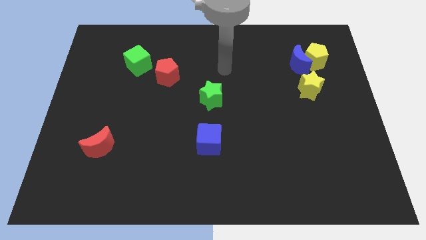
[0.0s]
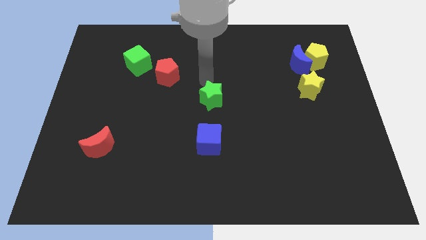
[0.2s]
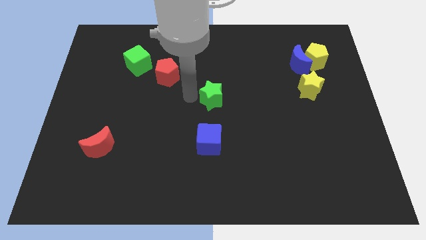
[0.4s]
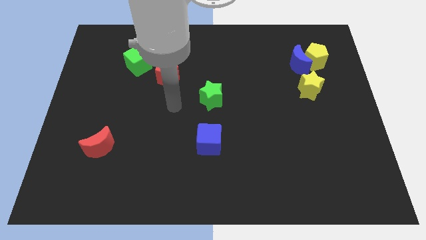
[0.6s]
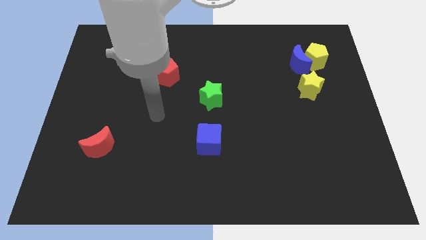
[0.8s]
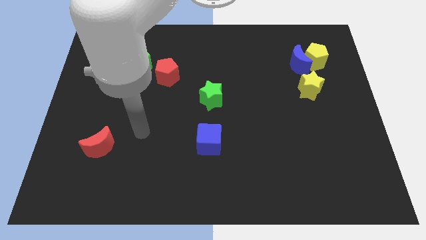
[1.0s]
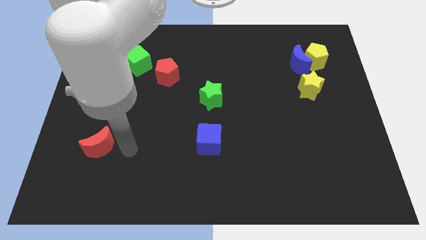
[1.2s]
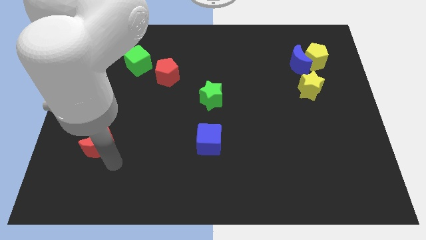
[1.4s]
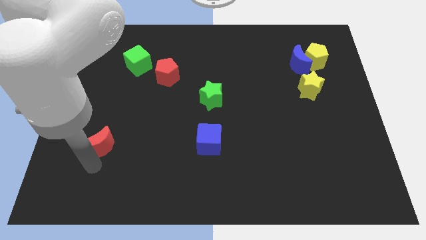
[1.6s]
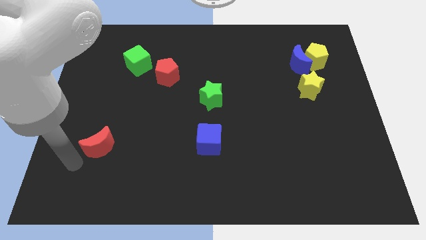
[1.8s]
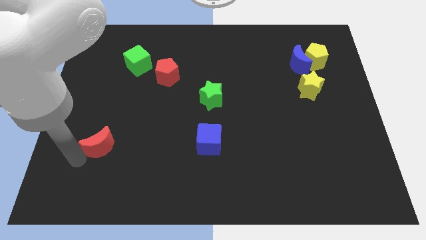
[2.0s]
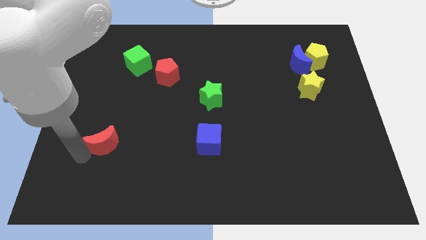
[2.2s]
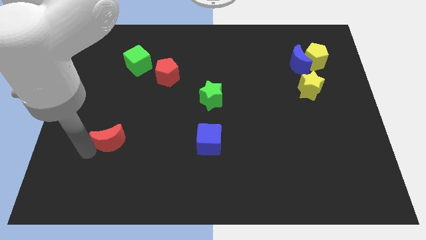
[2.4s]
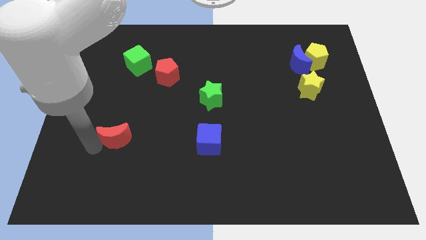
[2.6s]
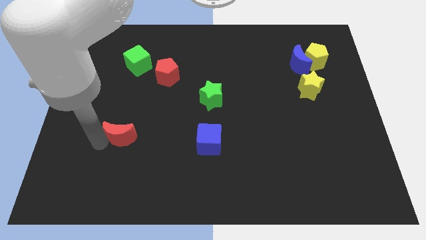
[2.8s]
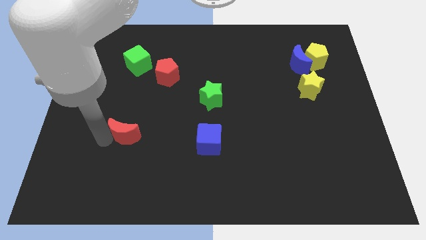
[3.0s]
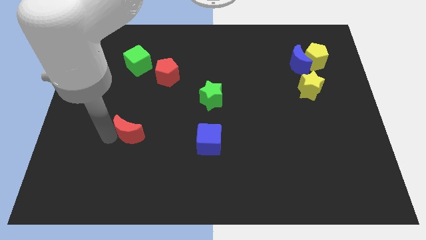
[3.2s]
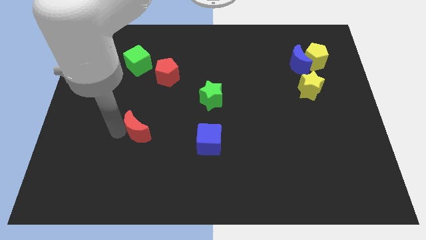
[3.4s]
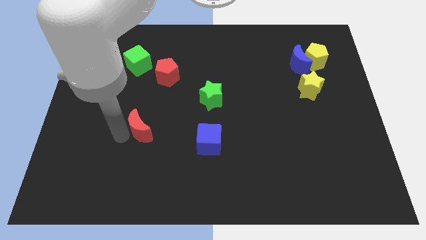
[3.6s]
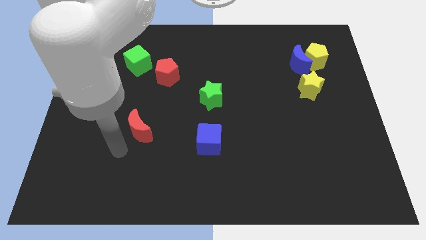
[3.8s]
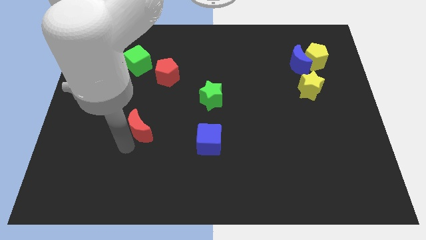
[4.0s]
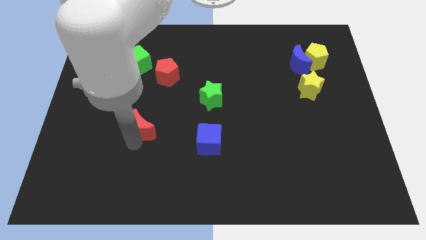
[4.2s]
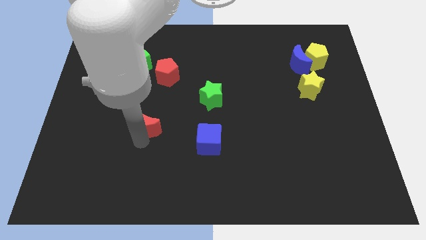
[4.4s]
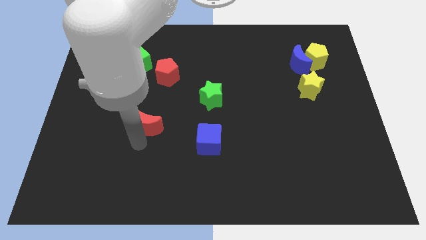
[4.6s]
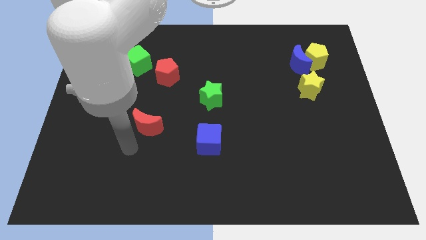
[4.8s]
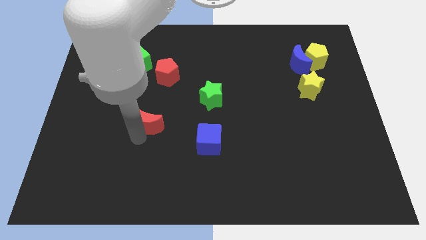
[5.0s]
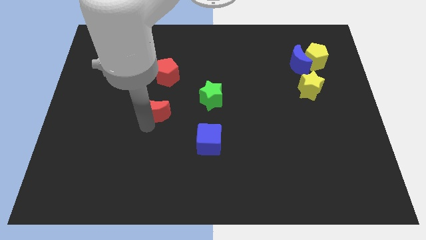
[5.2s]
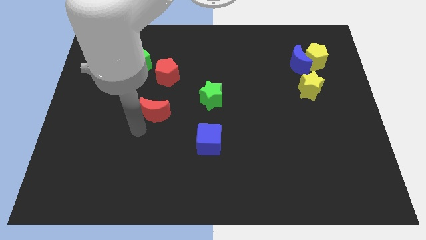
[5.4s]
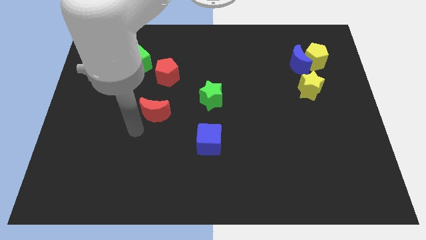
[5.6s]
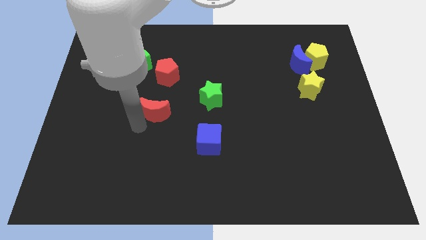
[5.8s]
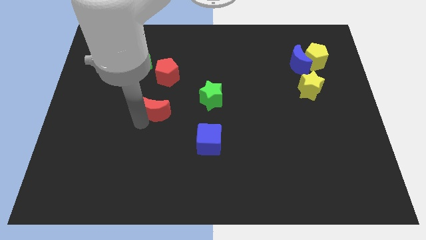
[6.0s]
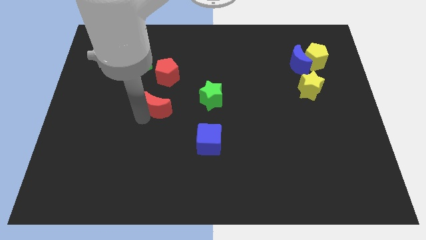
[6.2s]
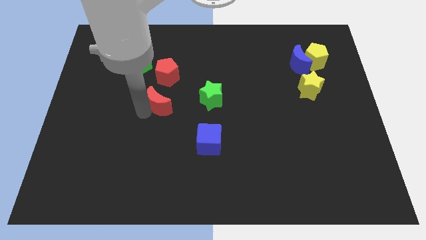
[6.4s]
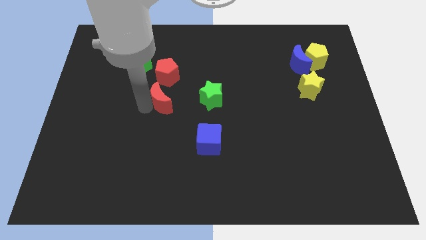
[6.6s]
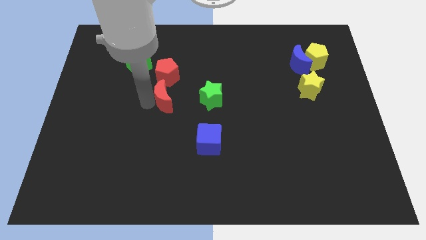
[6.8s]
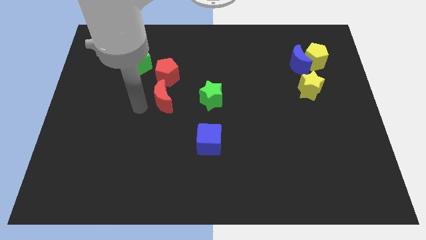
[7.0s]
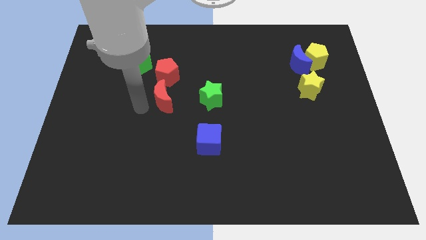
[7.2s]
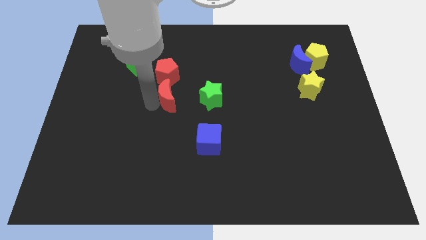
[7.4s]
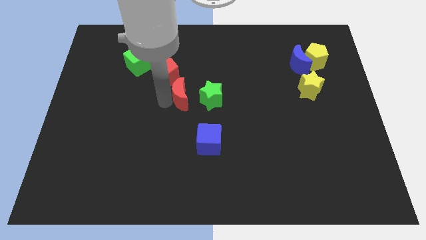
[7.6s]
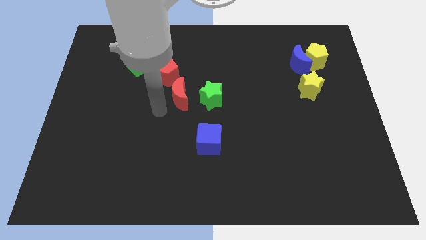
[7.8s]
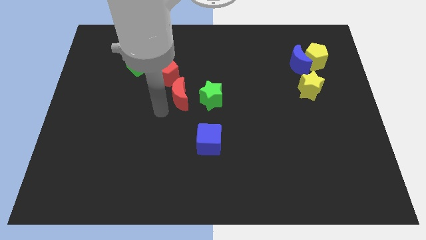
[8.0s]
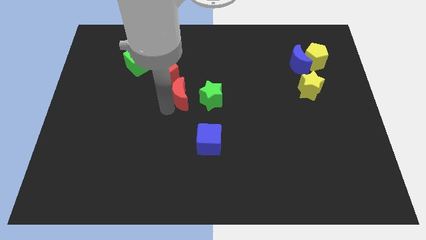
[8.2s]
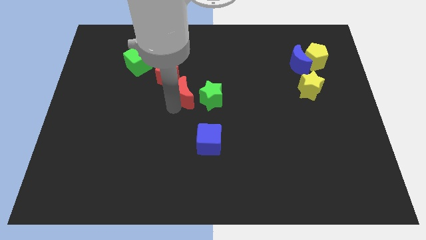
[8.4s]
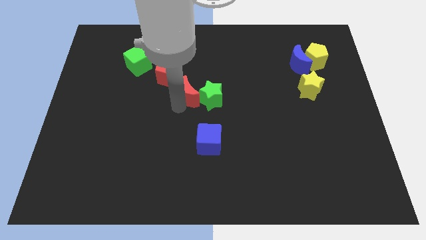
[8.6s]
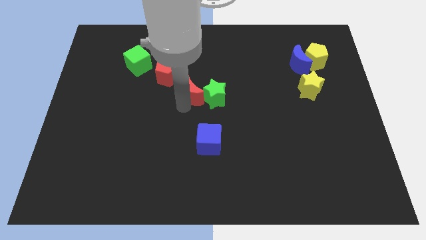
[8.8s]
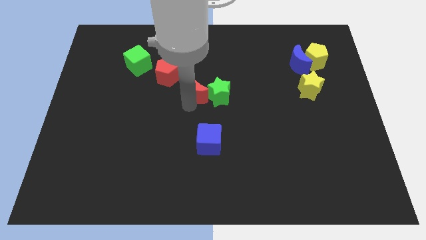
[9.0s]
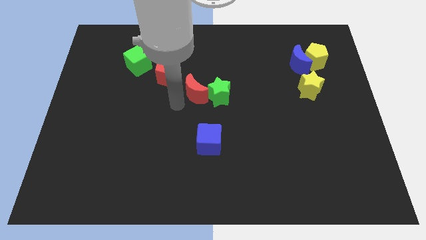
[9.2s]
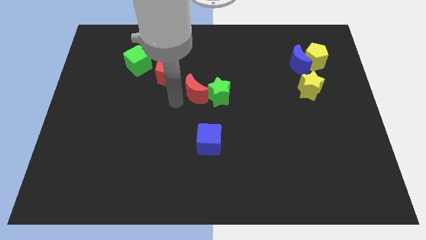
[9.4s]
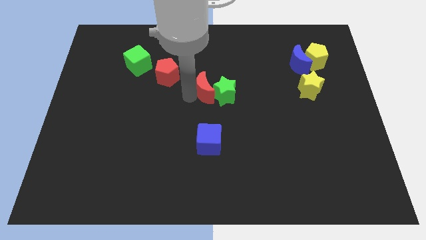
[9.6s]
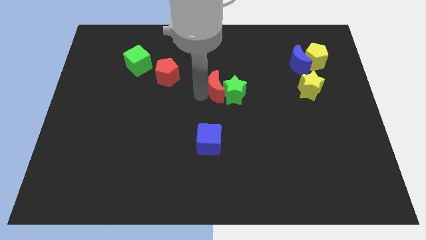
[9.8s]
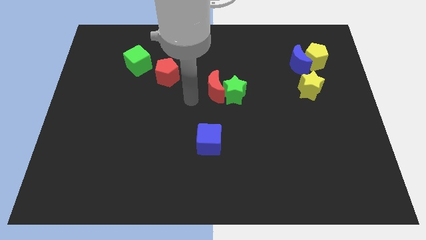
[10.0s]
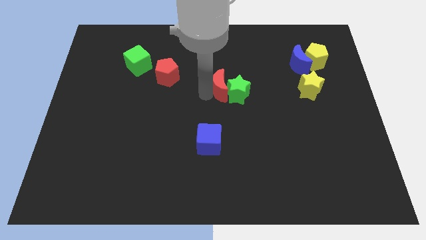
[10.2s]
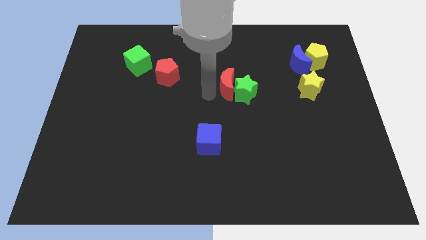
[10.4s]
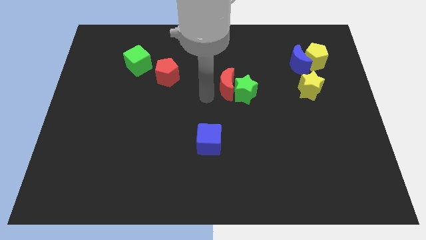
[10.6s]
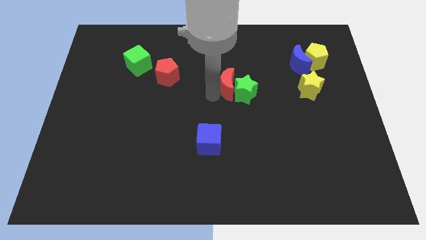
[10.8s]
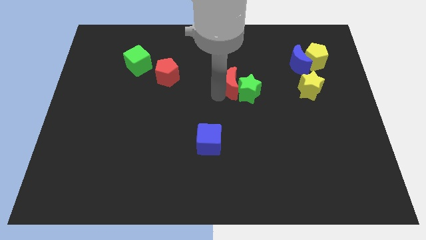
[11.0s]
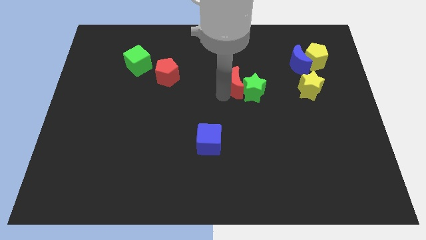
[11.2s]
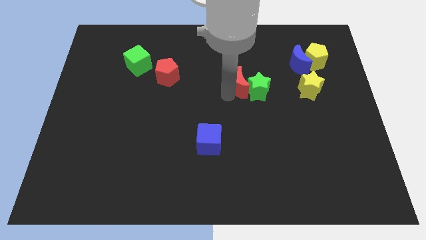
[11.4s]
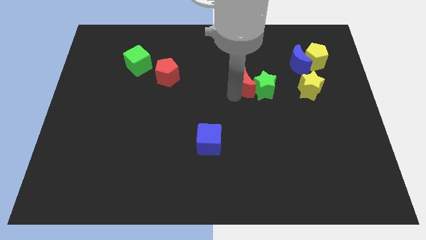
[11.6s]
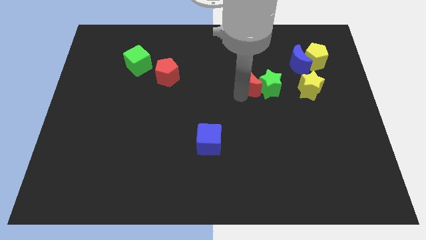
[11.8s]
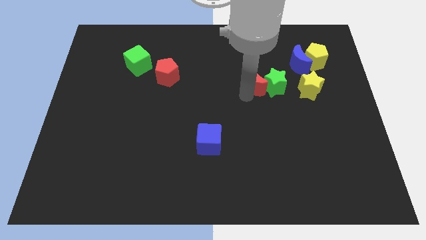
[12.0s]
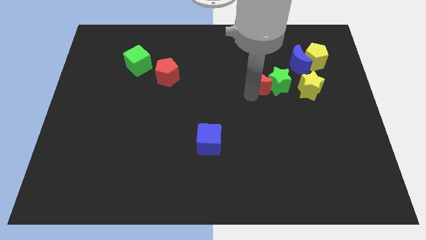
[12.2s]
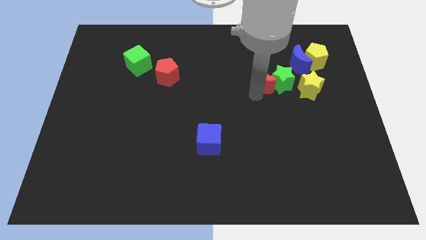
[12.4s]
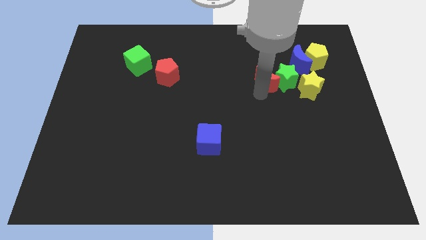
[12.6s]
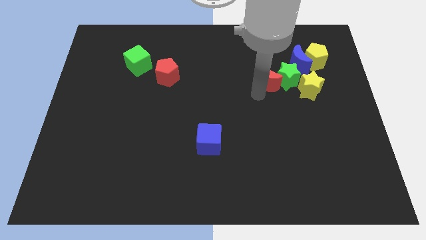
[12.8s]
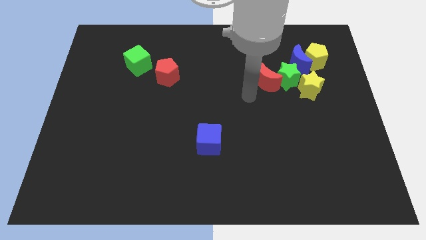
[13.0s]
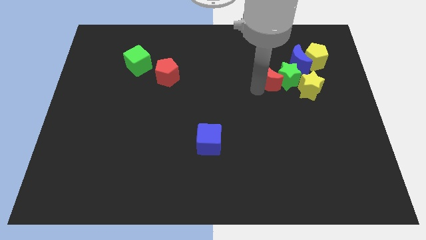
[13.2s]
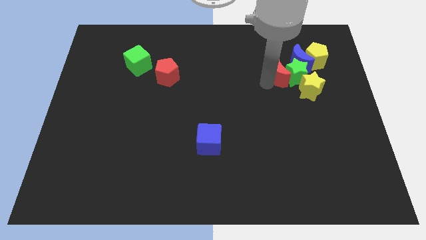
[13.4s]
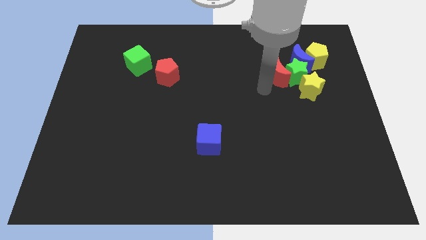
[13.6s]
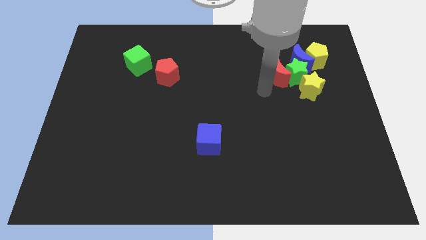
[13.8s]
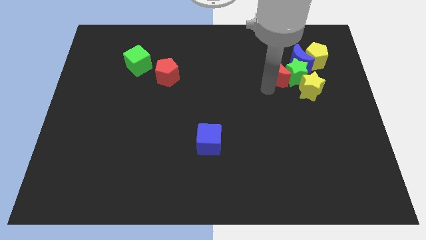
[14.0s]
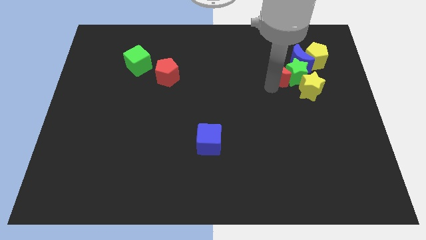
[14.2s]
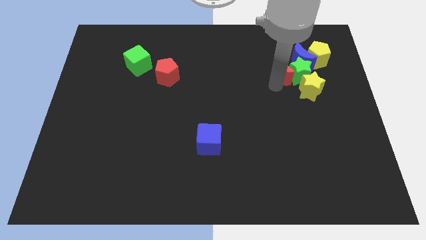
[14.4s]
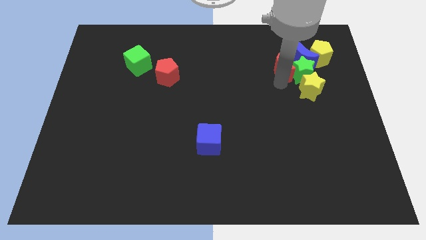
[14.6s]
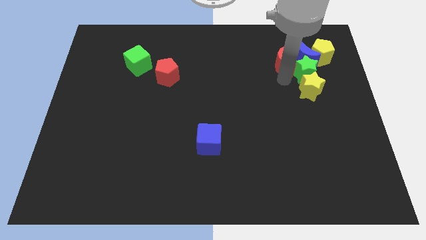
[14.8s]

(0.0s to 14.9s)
put the red moon close to the blue moon
